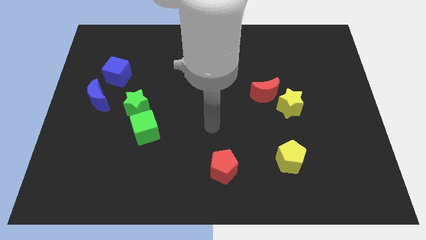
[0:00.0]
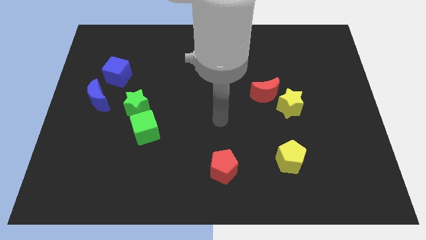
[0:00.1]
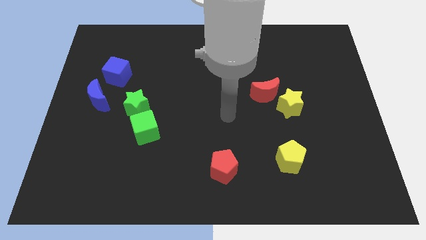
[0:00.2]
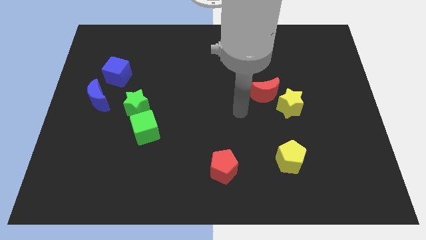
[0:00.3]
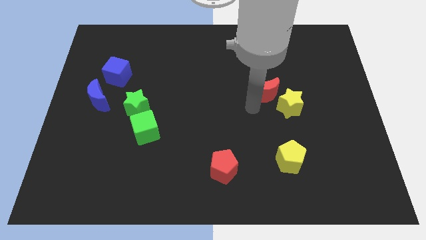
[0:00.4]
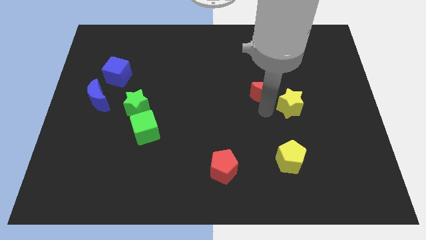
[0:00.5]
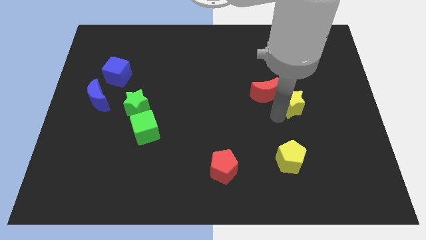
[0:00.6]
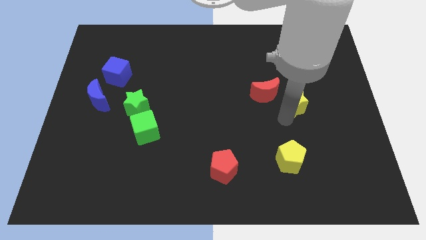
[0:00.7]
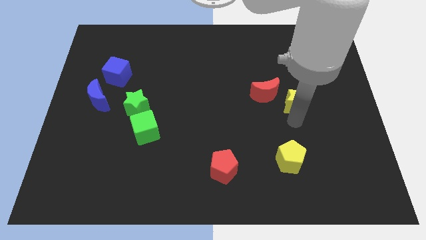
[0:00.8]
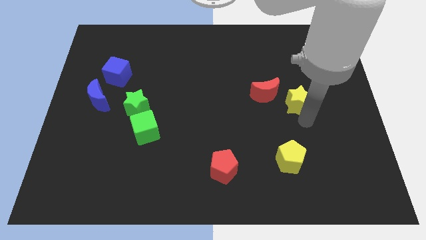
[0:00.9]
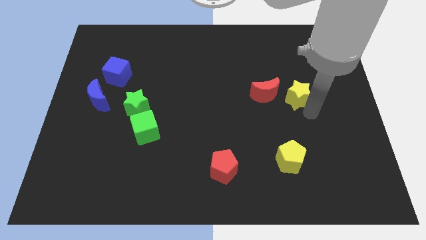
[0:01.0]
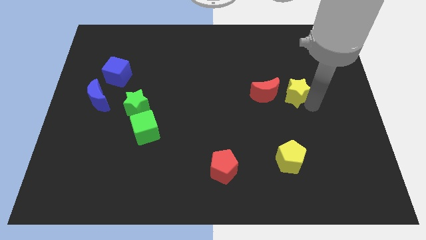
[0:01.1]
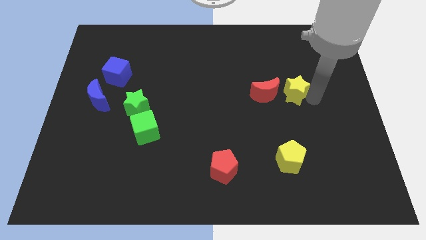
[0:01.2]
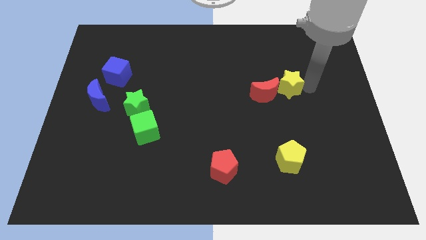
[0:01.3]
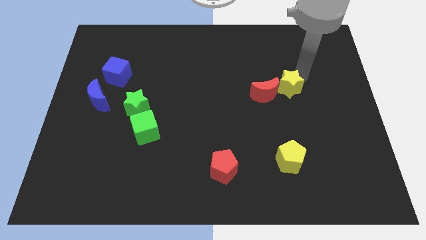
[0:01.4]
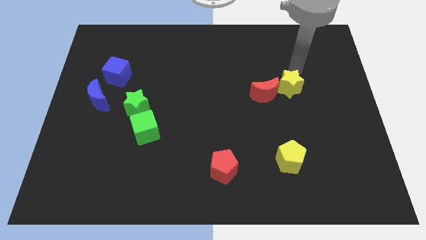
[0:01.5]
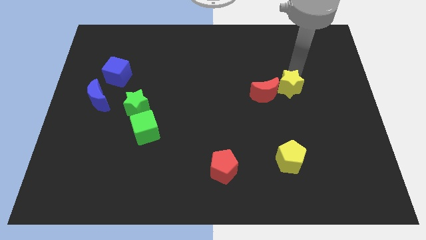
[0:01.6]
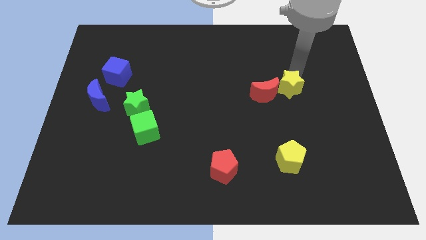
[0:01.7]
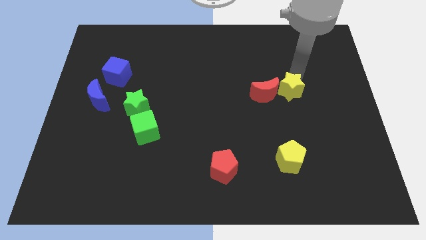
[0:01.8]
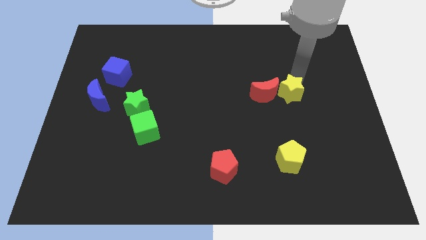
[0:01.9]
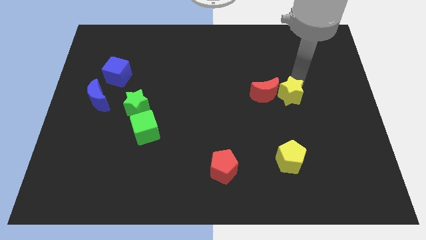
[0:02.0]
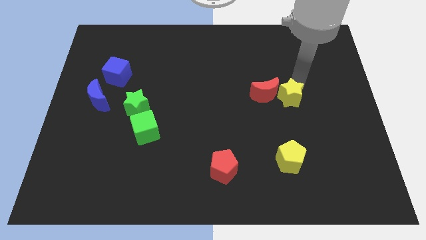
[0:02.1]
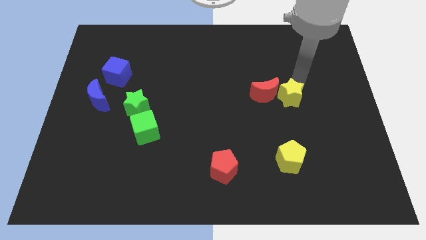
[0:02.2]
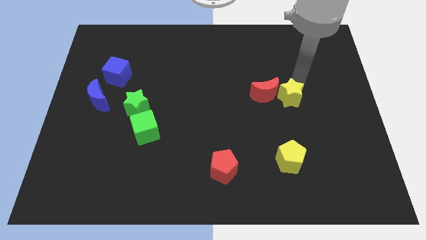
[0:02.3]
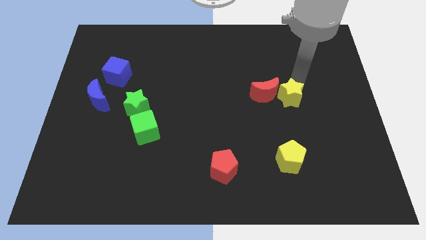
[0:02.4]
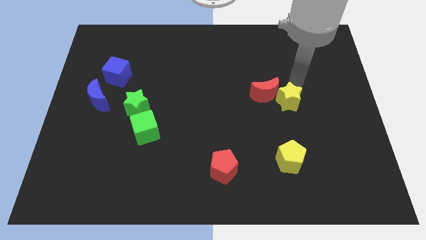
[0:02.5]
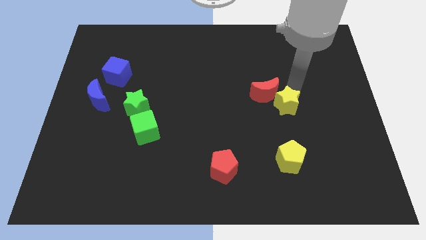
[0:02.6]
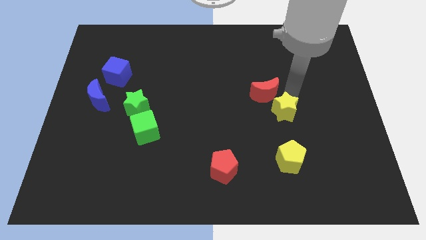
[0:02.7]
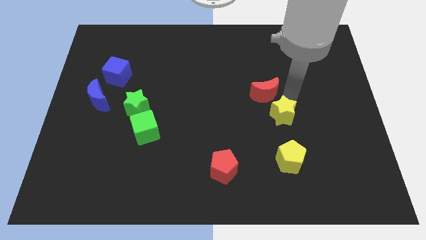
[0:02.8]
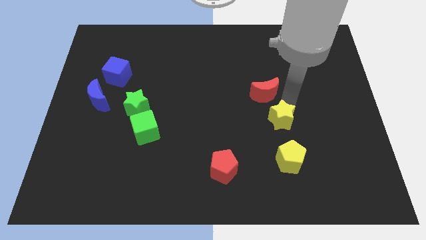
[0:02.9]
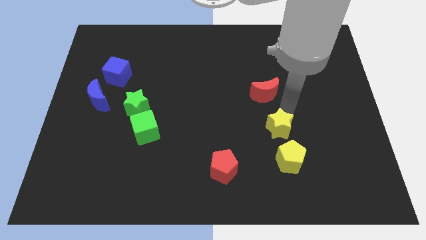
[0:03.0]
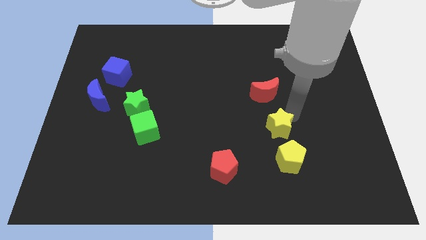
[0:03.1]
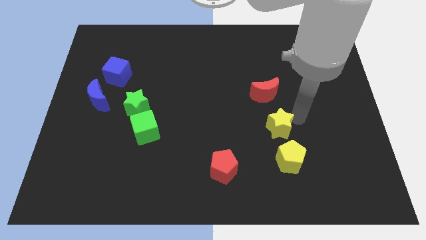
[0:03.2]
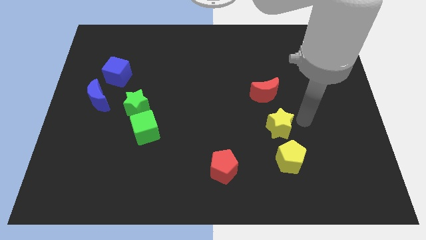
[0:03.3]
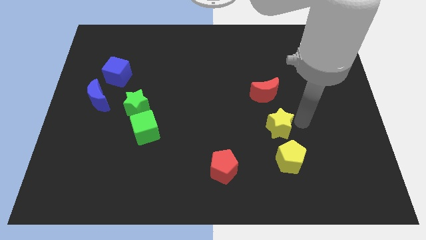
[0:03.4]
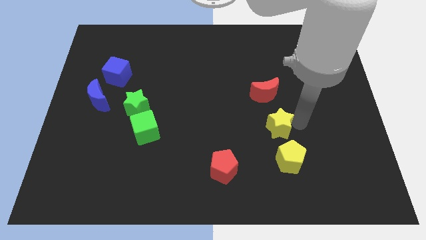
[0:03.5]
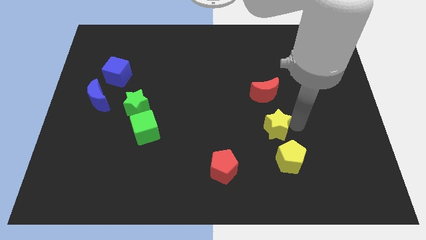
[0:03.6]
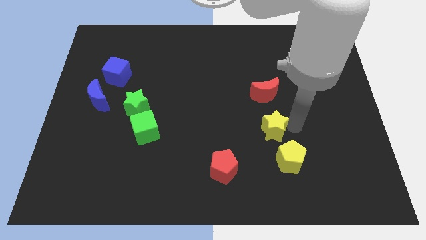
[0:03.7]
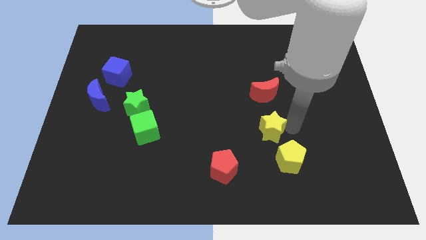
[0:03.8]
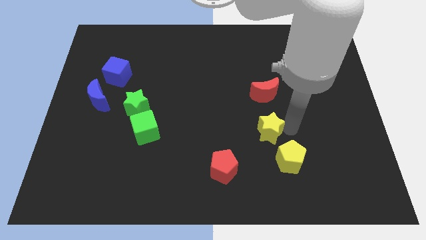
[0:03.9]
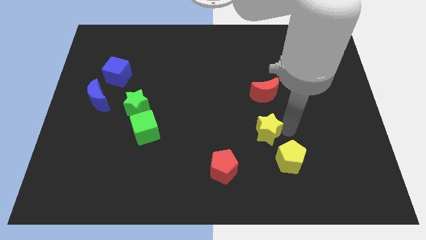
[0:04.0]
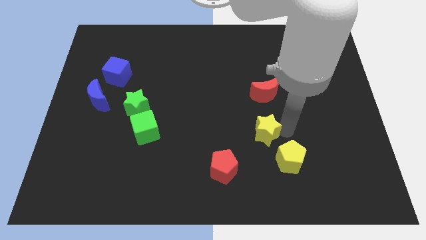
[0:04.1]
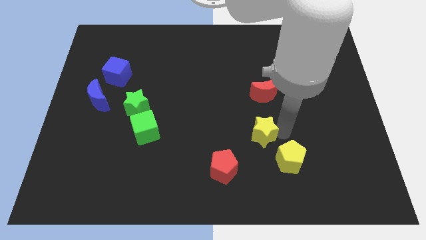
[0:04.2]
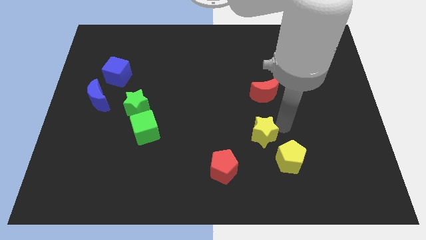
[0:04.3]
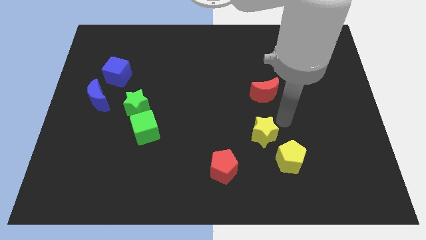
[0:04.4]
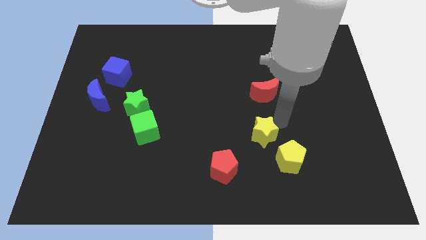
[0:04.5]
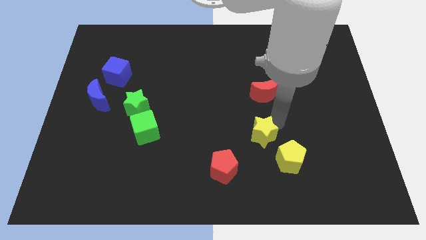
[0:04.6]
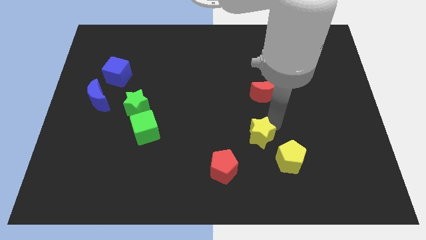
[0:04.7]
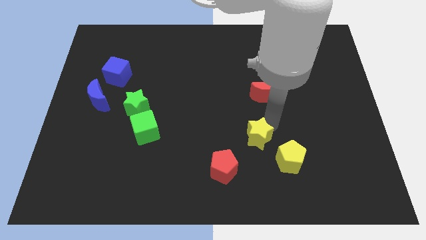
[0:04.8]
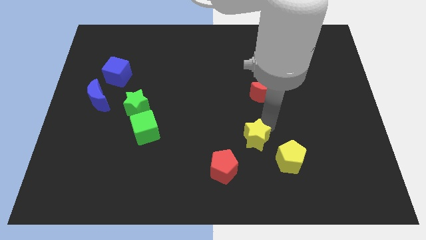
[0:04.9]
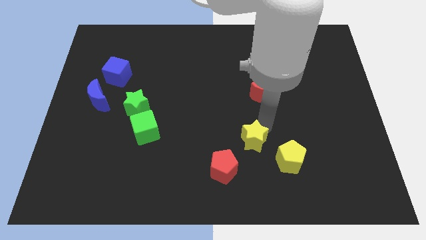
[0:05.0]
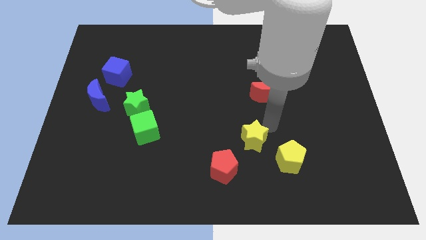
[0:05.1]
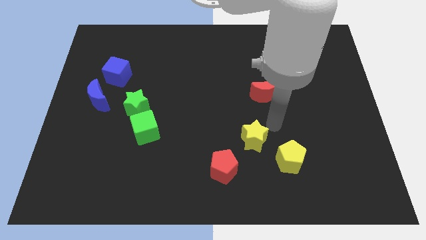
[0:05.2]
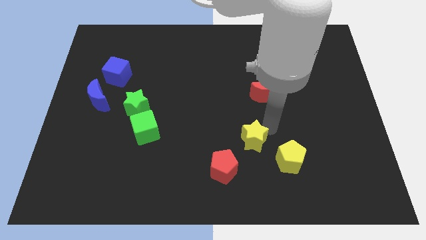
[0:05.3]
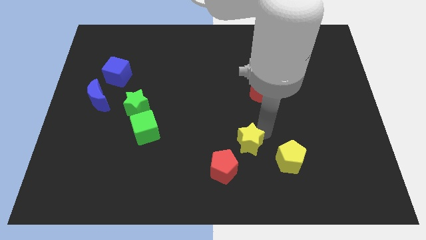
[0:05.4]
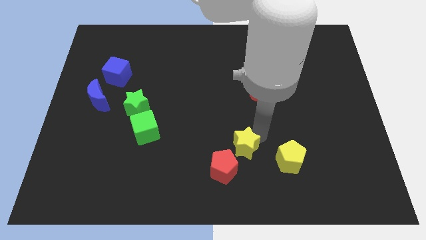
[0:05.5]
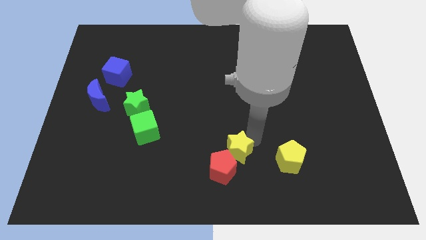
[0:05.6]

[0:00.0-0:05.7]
slide the yellow star to the red pentagon

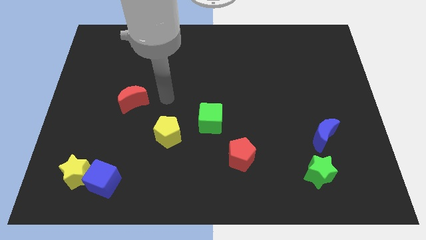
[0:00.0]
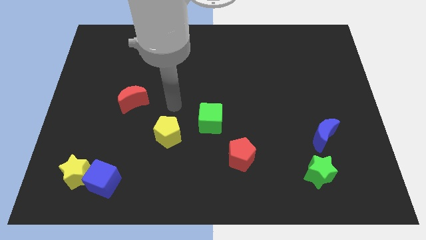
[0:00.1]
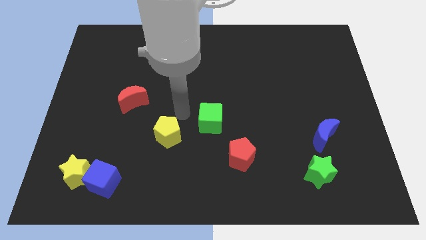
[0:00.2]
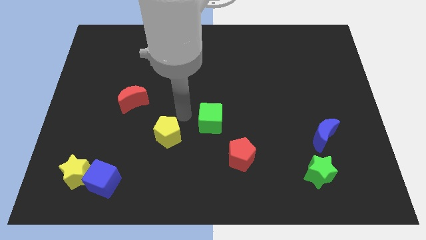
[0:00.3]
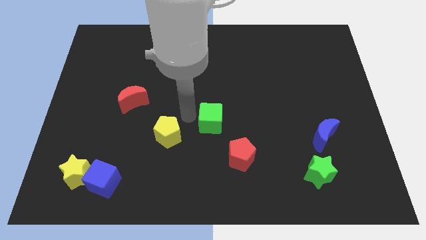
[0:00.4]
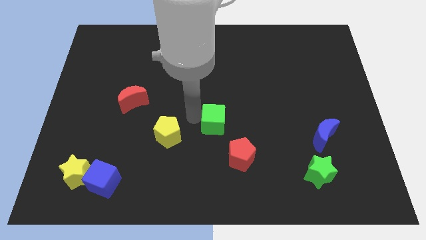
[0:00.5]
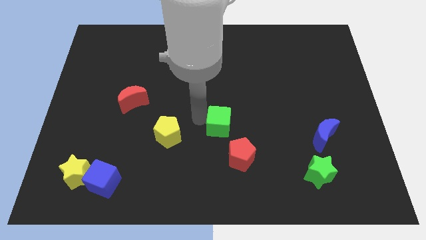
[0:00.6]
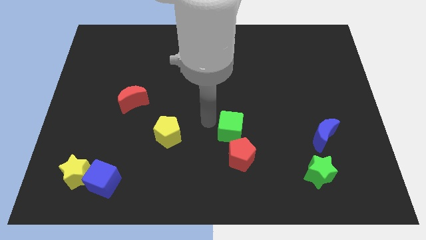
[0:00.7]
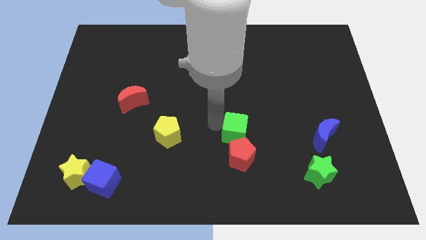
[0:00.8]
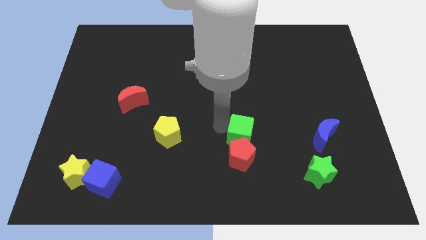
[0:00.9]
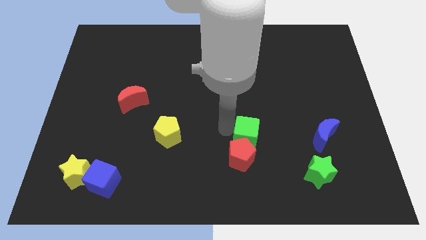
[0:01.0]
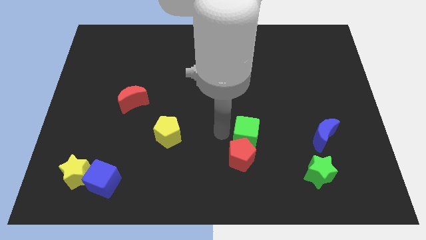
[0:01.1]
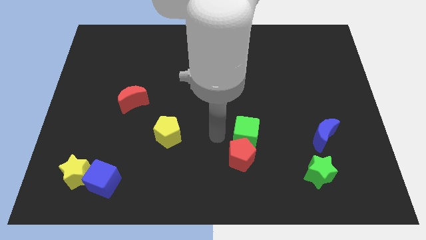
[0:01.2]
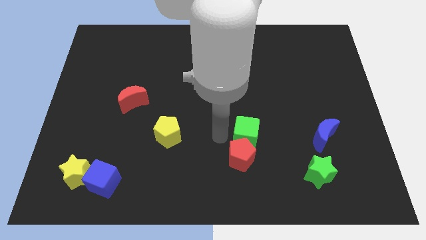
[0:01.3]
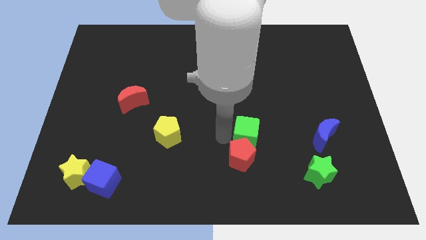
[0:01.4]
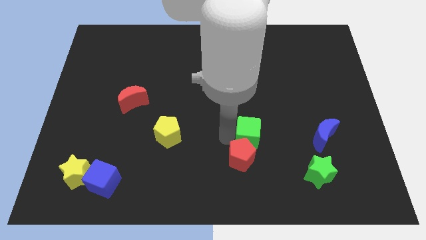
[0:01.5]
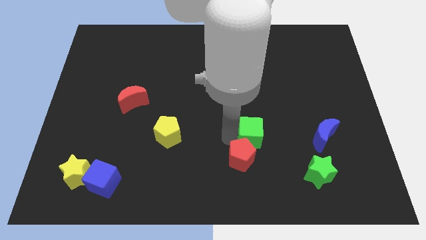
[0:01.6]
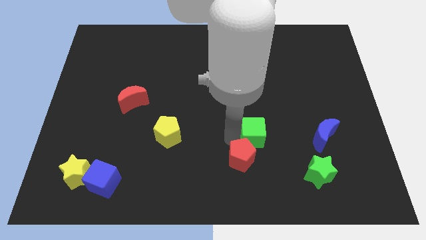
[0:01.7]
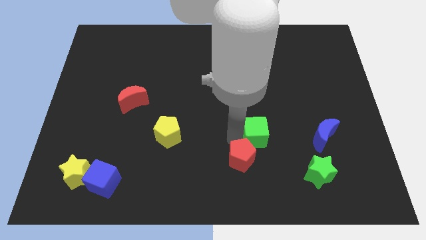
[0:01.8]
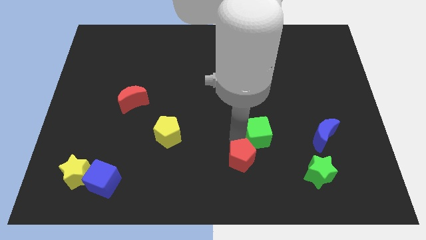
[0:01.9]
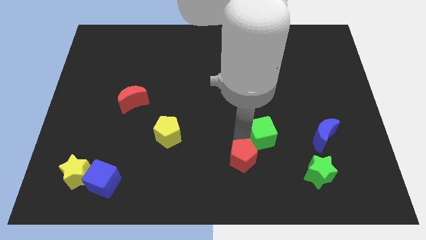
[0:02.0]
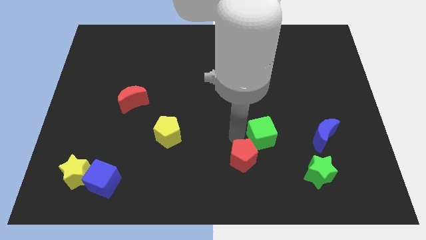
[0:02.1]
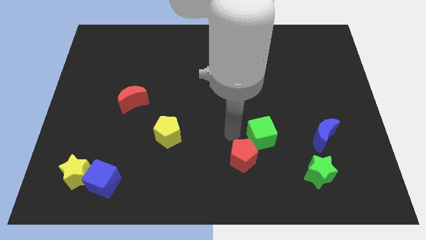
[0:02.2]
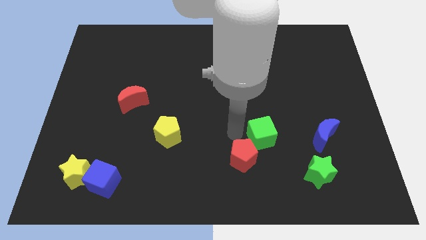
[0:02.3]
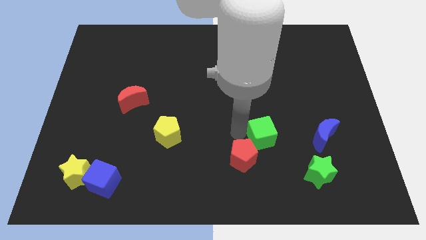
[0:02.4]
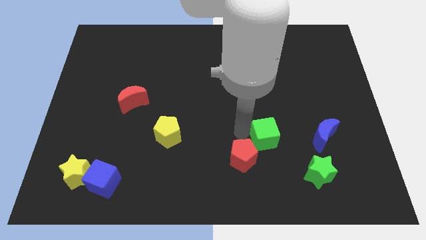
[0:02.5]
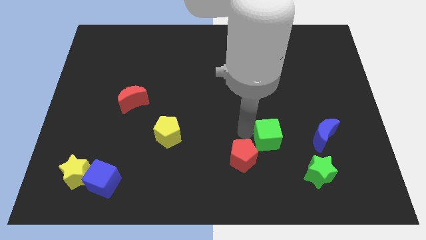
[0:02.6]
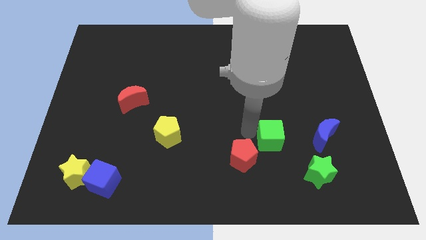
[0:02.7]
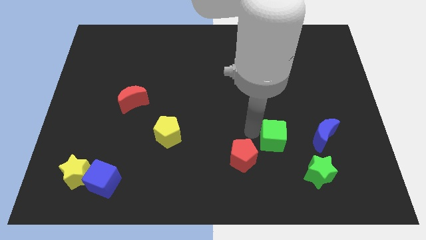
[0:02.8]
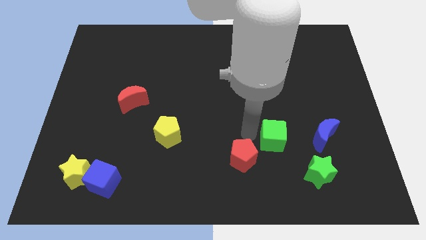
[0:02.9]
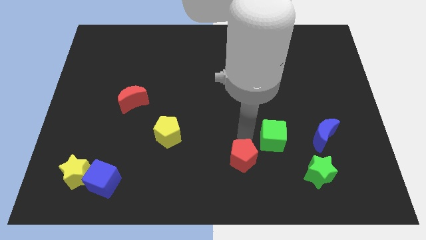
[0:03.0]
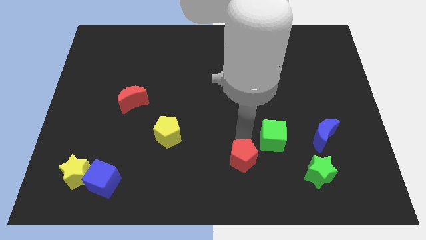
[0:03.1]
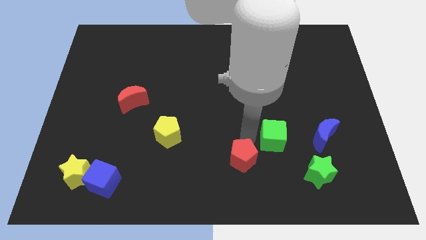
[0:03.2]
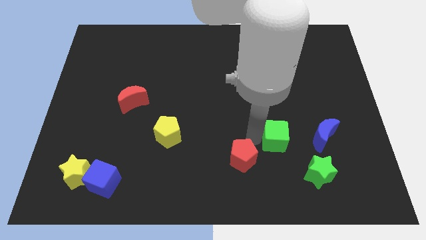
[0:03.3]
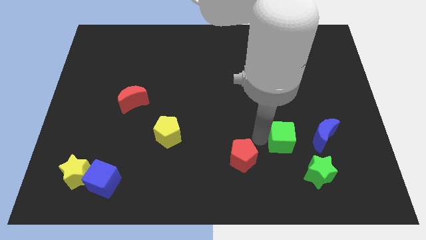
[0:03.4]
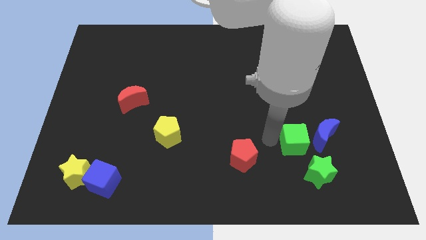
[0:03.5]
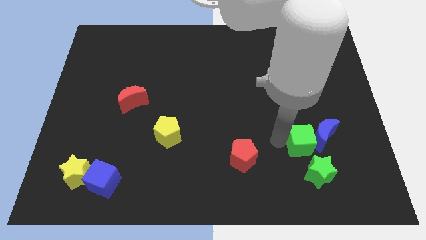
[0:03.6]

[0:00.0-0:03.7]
put the green cube to the blue moon
